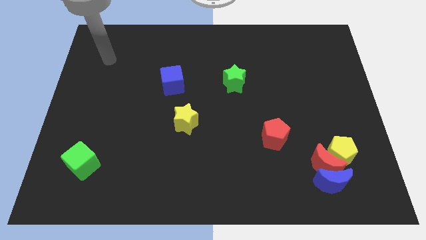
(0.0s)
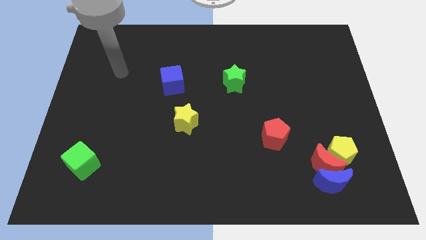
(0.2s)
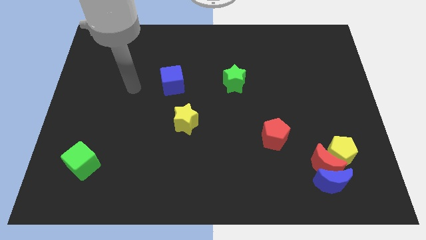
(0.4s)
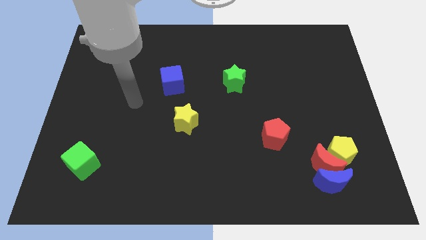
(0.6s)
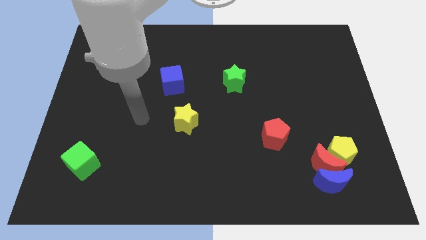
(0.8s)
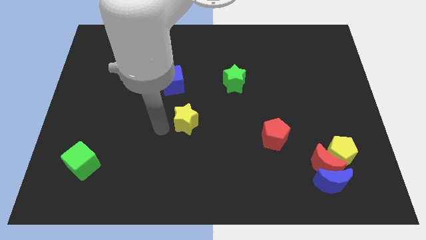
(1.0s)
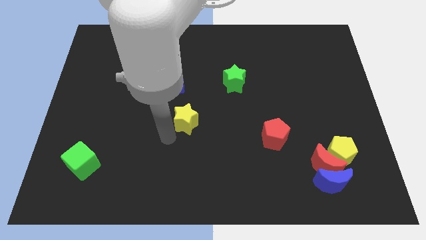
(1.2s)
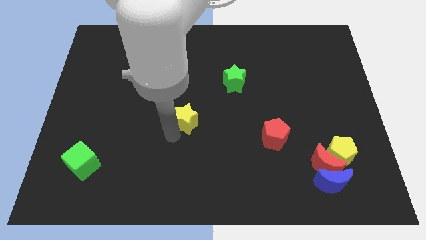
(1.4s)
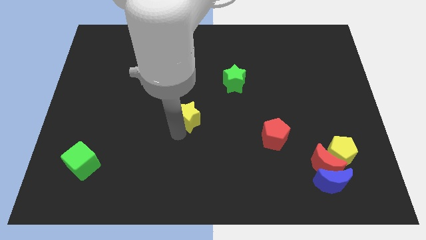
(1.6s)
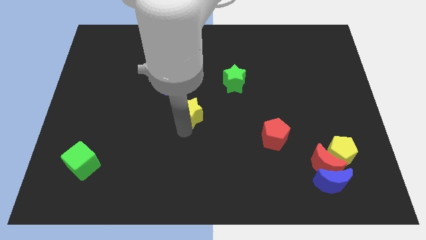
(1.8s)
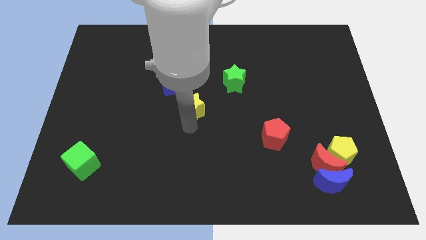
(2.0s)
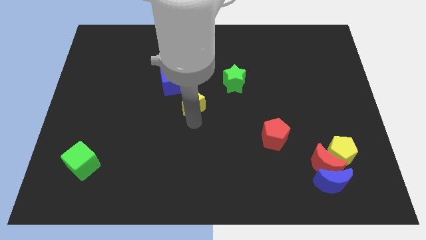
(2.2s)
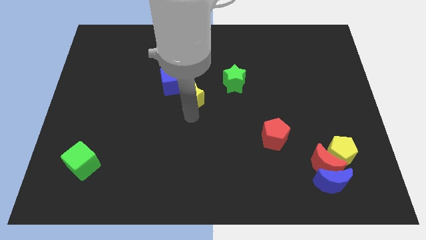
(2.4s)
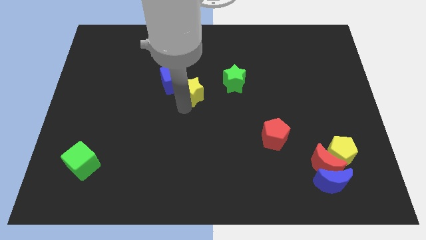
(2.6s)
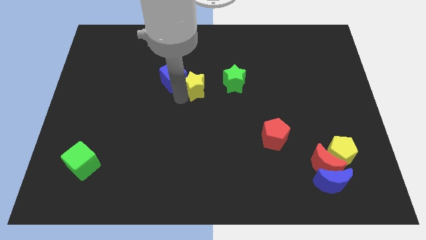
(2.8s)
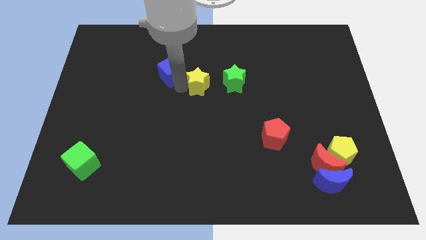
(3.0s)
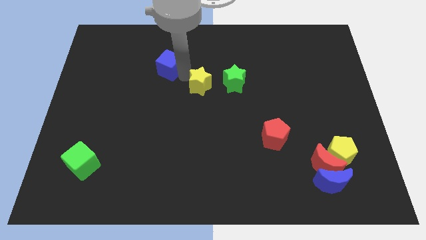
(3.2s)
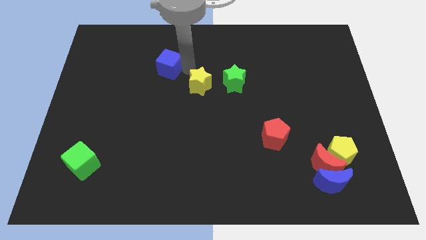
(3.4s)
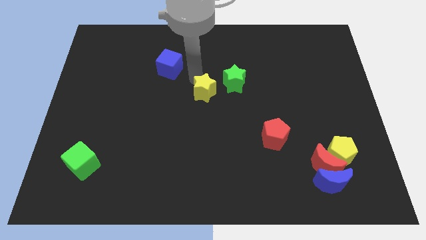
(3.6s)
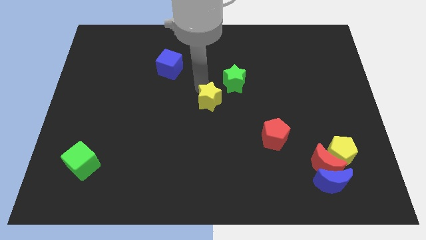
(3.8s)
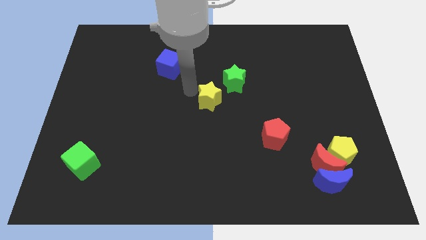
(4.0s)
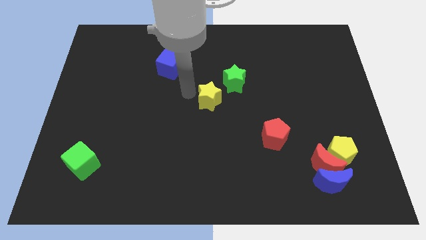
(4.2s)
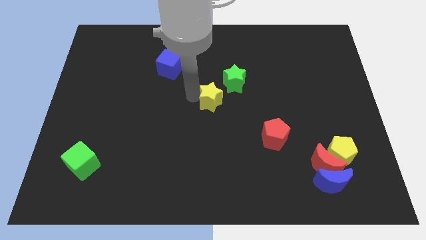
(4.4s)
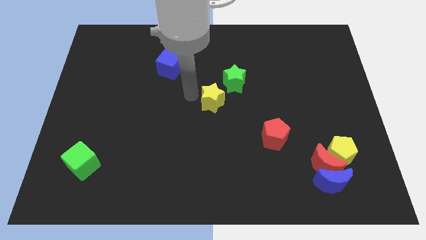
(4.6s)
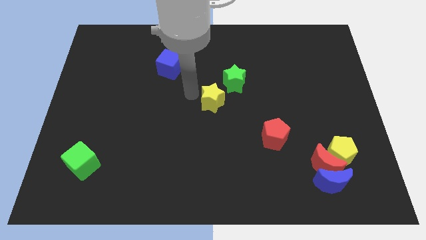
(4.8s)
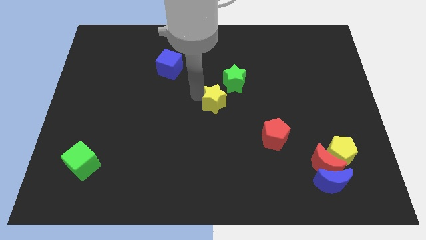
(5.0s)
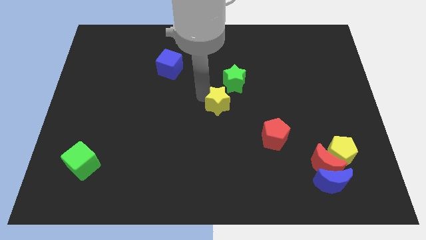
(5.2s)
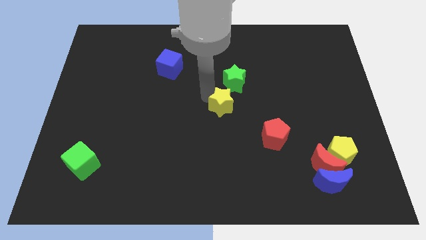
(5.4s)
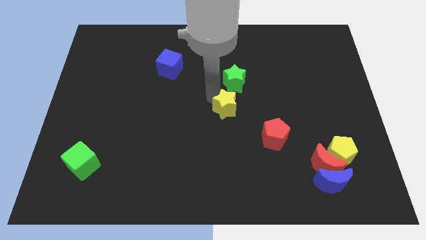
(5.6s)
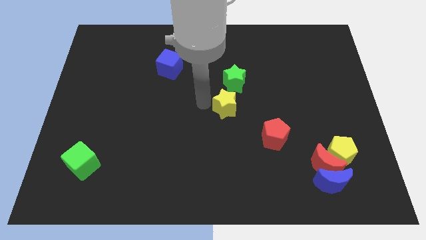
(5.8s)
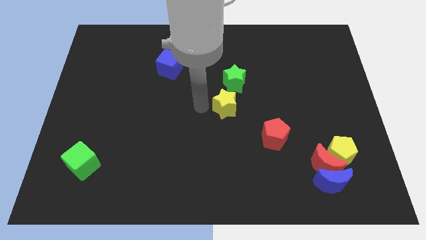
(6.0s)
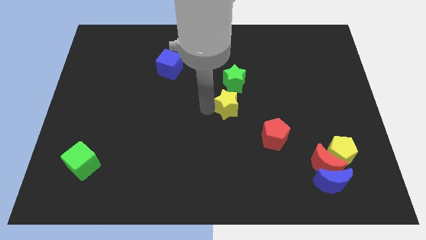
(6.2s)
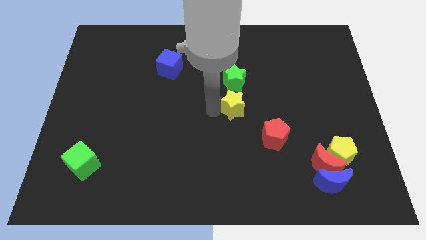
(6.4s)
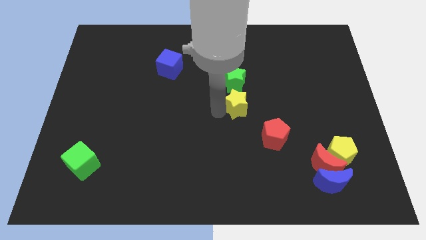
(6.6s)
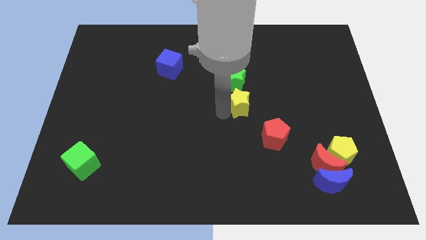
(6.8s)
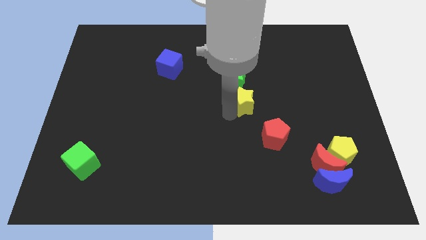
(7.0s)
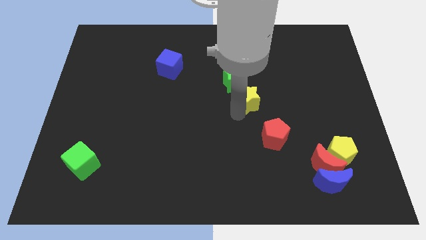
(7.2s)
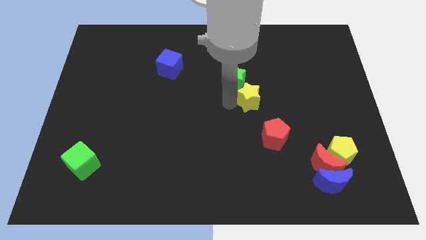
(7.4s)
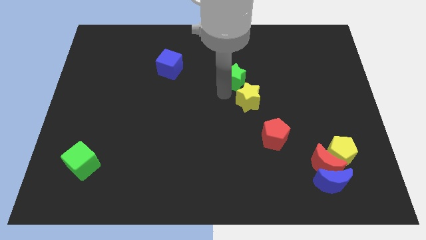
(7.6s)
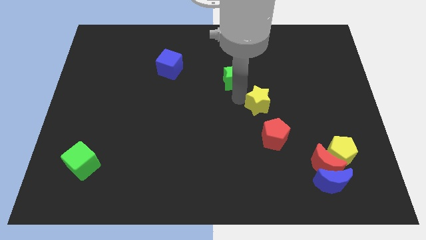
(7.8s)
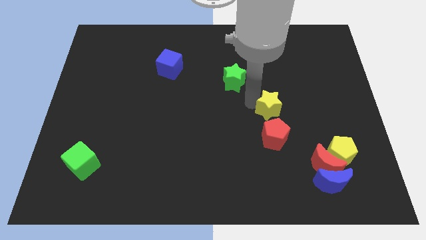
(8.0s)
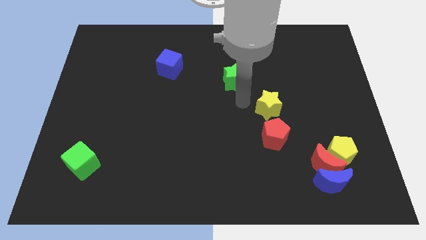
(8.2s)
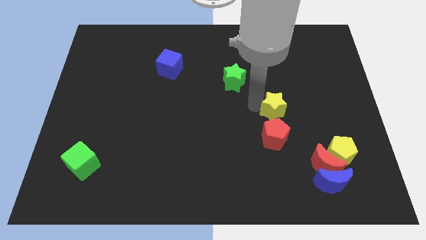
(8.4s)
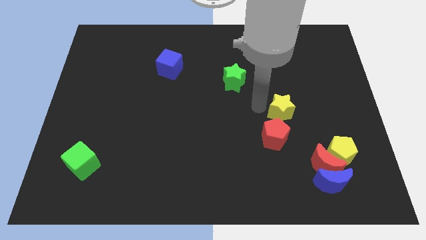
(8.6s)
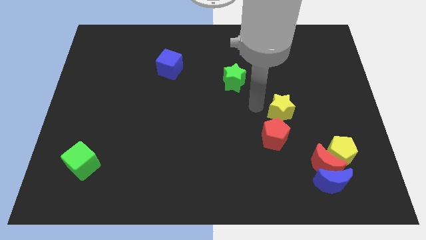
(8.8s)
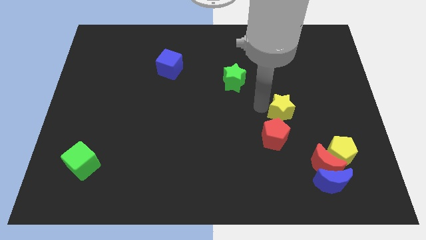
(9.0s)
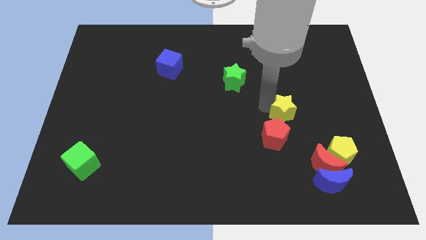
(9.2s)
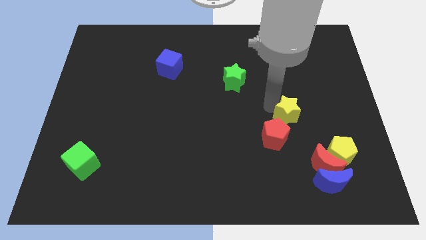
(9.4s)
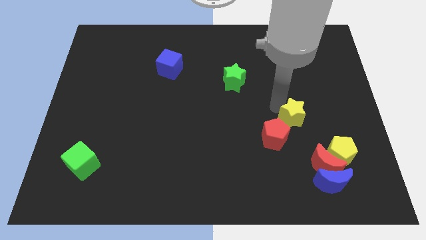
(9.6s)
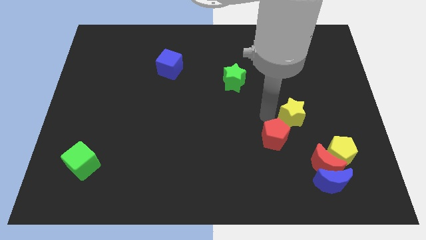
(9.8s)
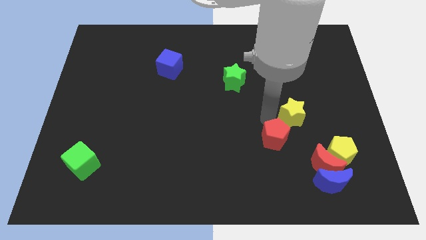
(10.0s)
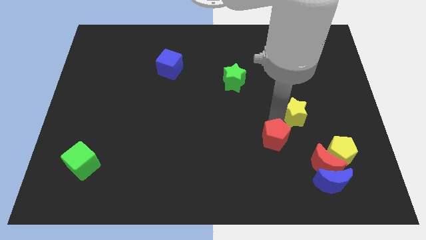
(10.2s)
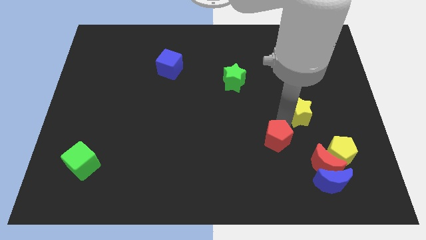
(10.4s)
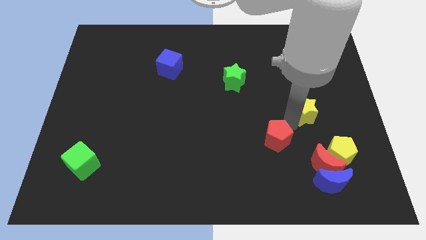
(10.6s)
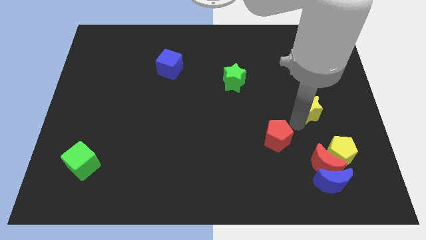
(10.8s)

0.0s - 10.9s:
push the yellow star to the top side of the yellow pentagon

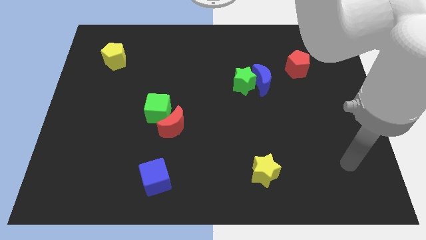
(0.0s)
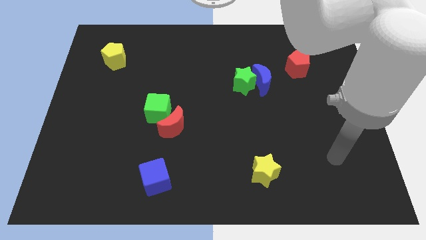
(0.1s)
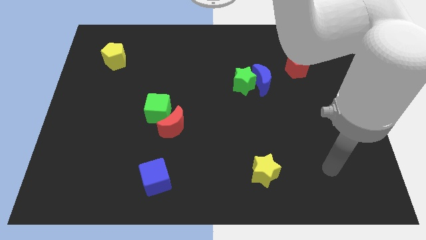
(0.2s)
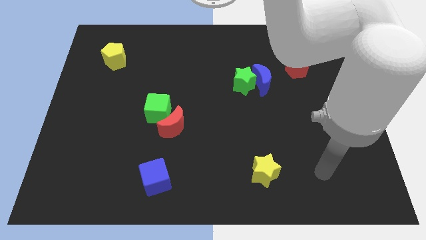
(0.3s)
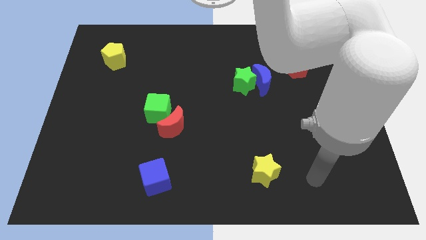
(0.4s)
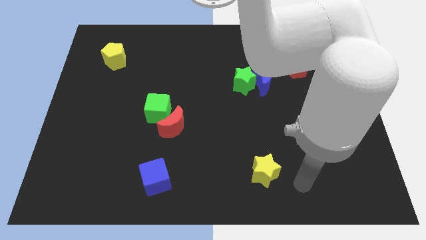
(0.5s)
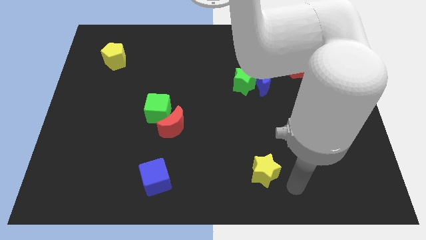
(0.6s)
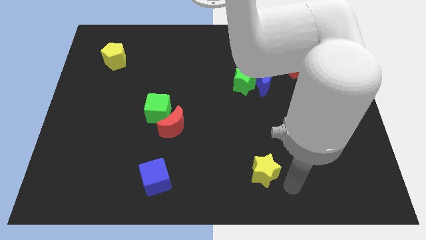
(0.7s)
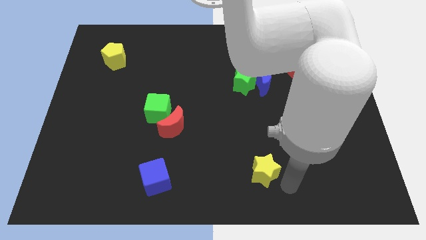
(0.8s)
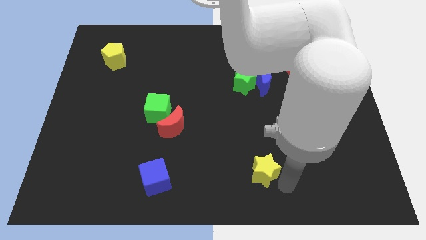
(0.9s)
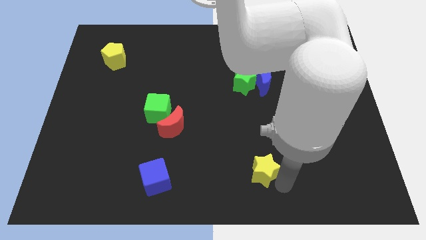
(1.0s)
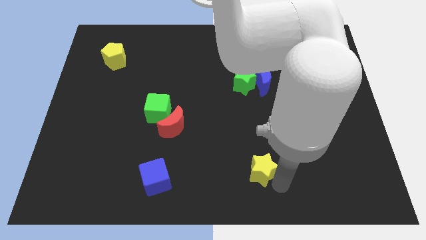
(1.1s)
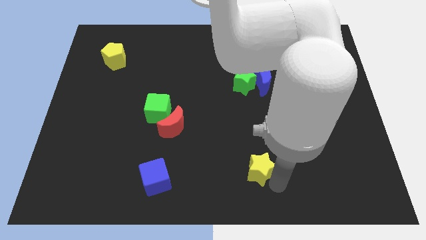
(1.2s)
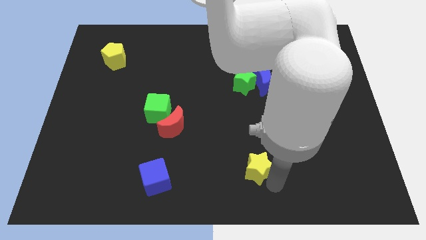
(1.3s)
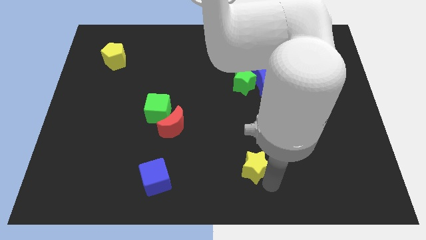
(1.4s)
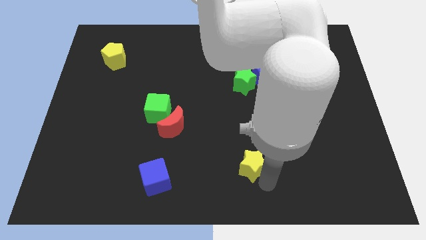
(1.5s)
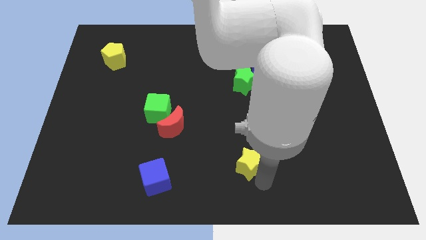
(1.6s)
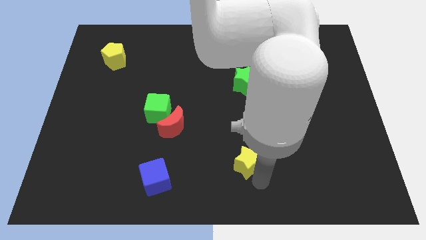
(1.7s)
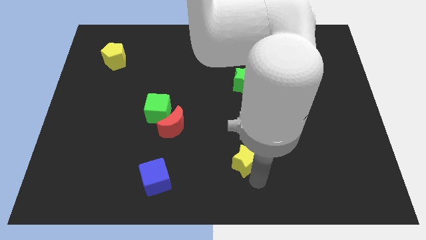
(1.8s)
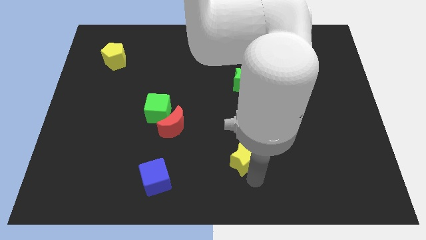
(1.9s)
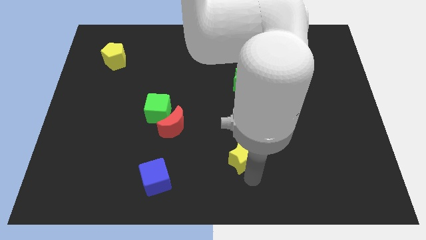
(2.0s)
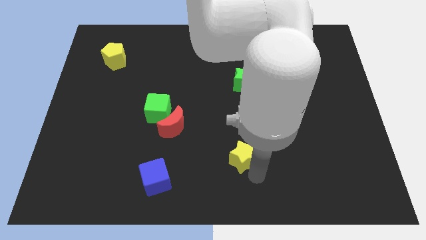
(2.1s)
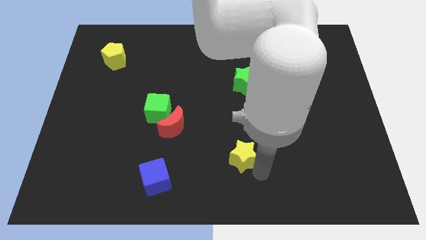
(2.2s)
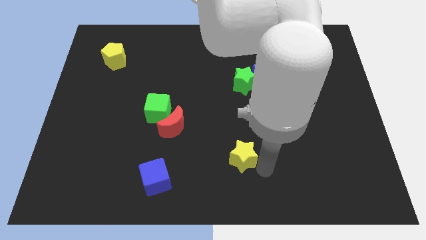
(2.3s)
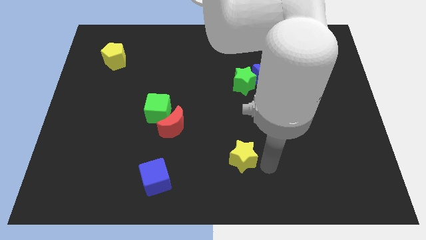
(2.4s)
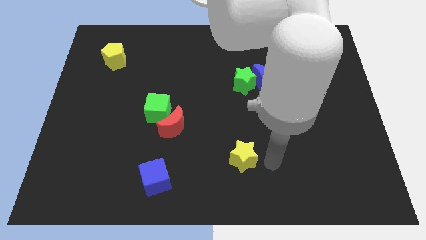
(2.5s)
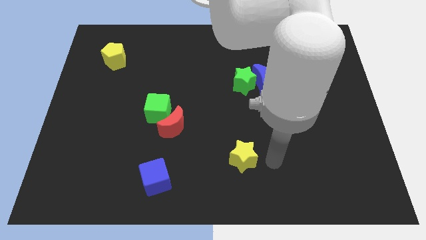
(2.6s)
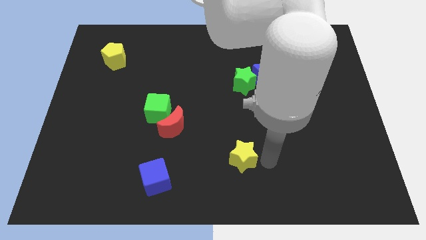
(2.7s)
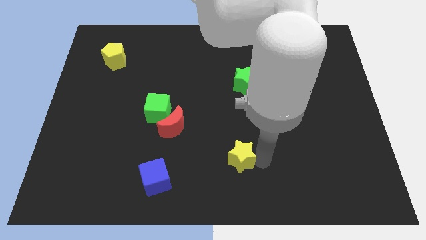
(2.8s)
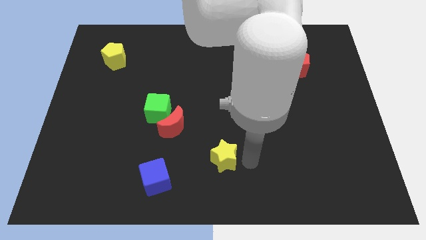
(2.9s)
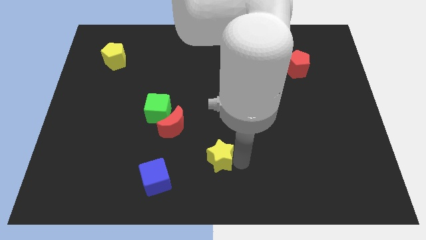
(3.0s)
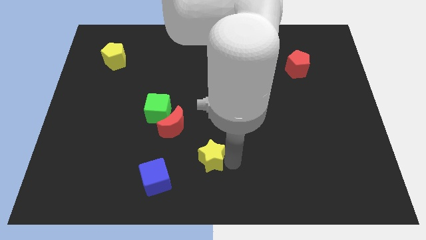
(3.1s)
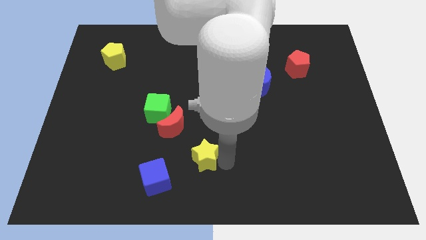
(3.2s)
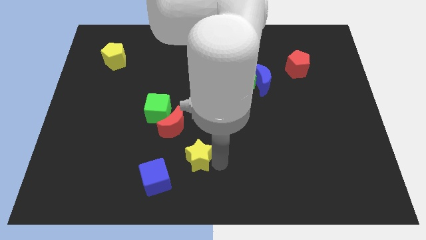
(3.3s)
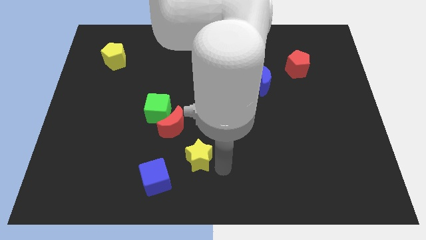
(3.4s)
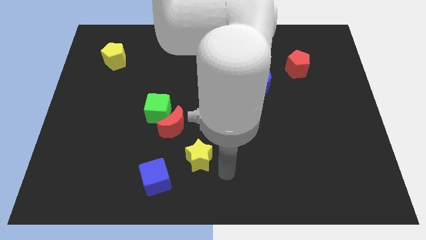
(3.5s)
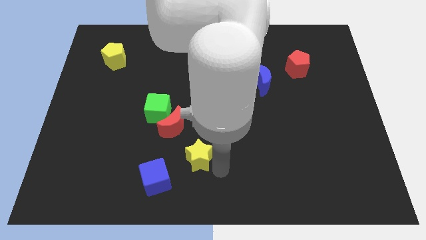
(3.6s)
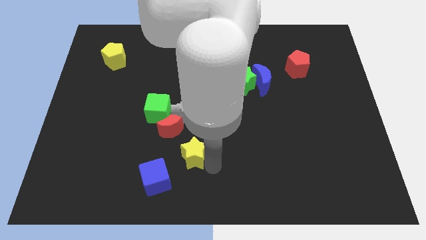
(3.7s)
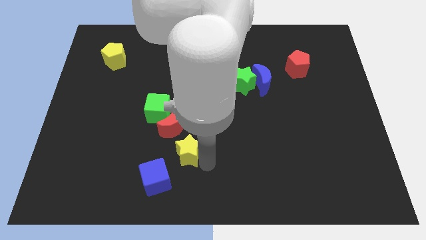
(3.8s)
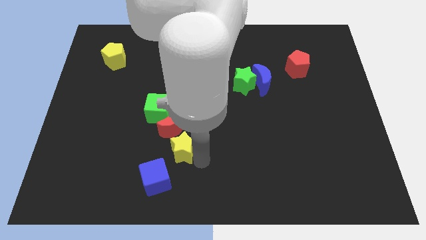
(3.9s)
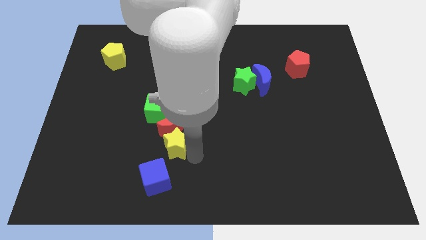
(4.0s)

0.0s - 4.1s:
move the yellow star to the bottom left of the red moon
